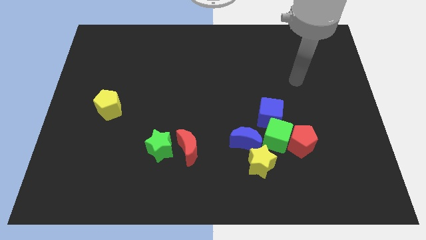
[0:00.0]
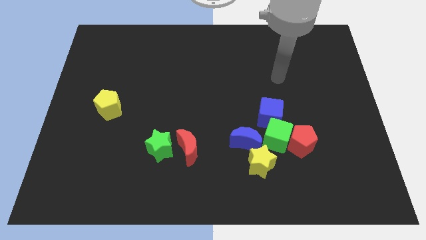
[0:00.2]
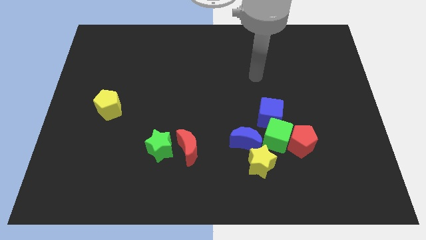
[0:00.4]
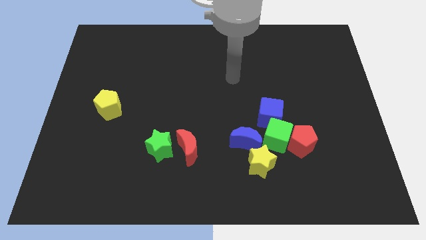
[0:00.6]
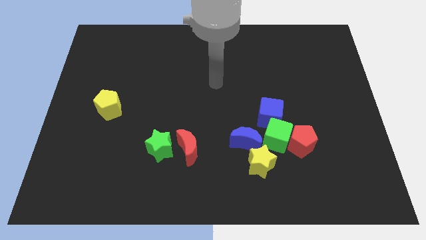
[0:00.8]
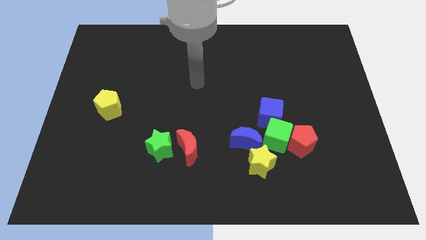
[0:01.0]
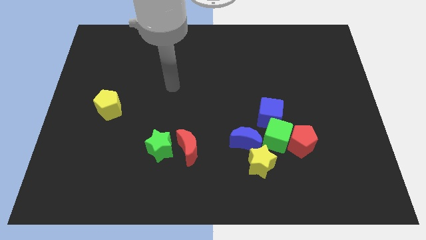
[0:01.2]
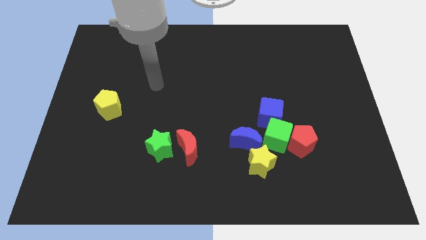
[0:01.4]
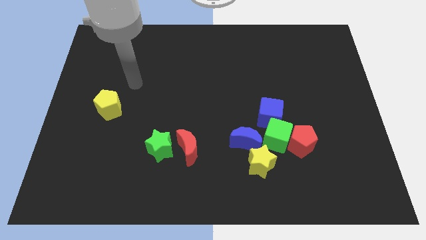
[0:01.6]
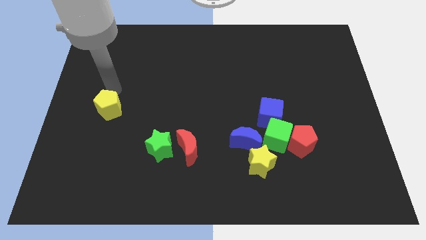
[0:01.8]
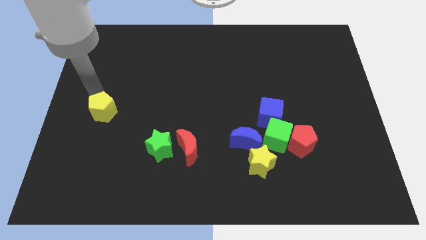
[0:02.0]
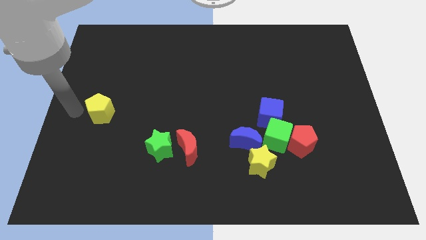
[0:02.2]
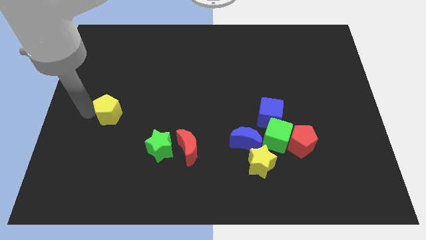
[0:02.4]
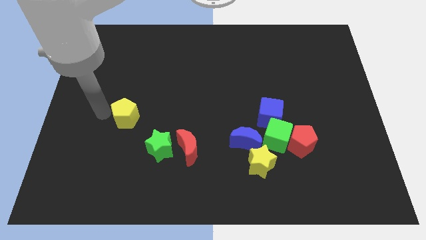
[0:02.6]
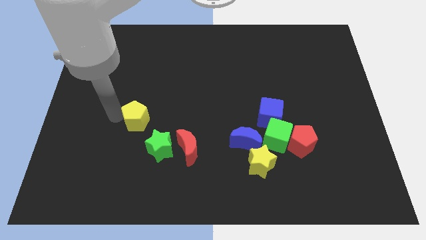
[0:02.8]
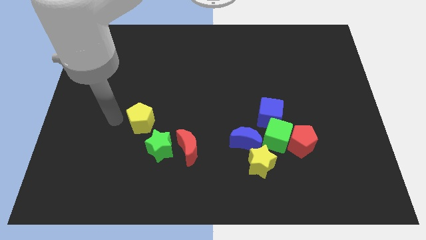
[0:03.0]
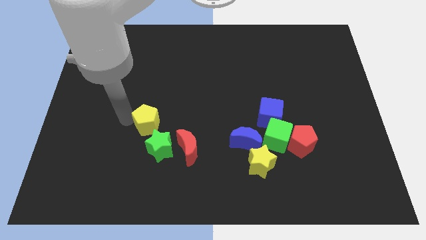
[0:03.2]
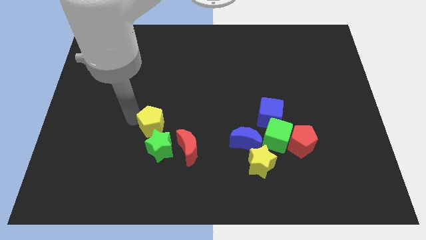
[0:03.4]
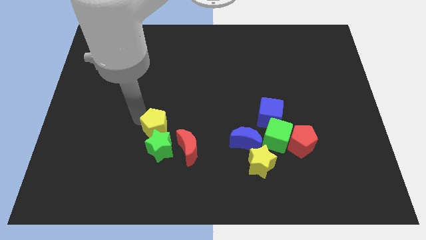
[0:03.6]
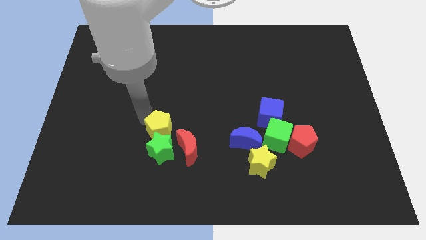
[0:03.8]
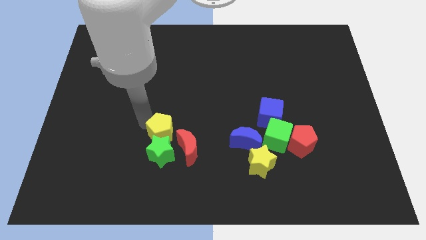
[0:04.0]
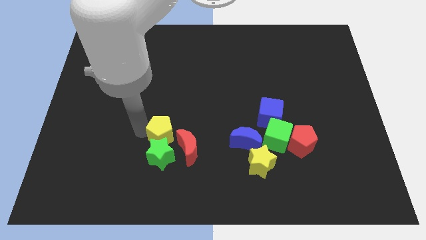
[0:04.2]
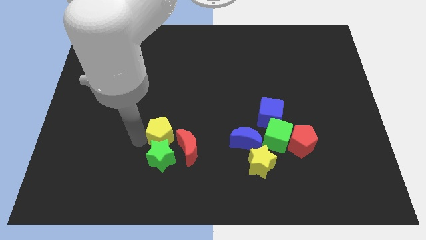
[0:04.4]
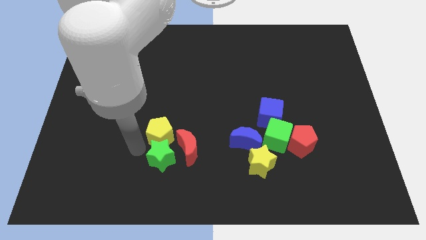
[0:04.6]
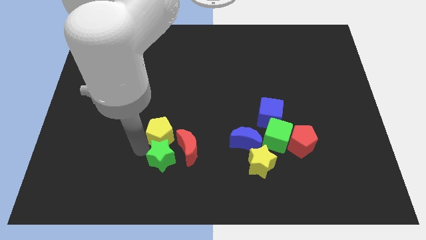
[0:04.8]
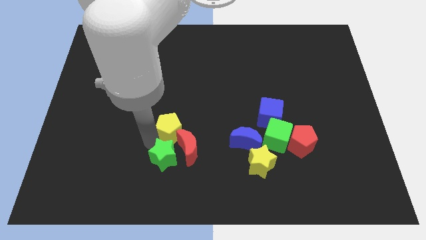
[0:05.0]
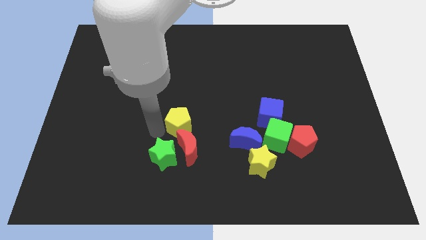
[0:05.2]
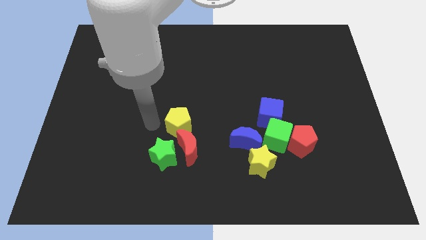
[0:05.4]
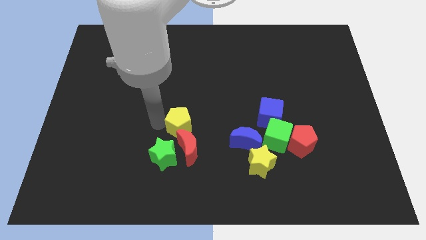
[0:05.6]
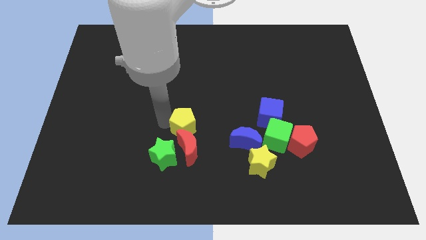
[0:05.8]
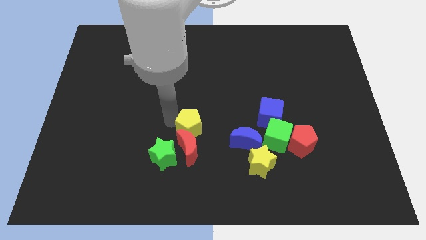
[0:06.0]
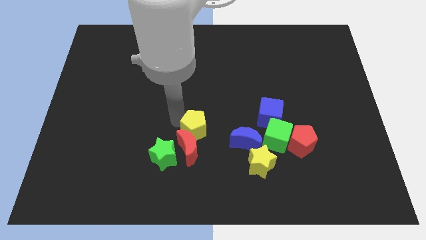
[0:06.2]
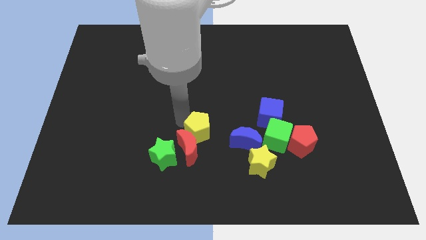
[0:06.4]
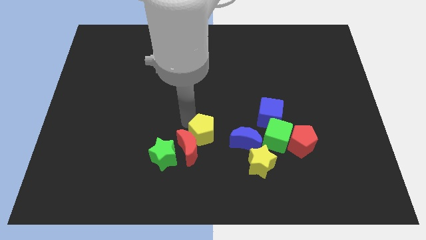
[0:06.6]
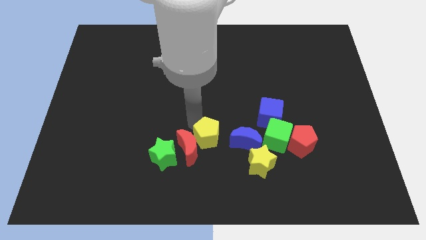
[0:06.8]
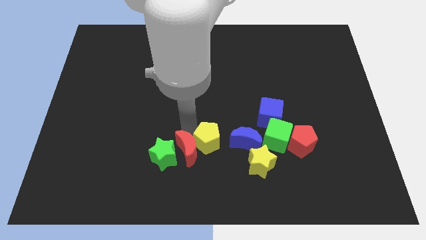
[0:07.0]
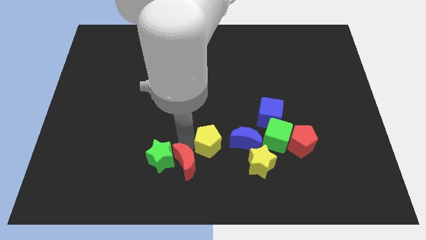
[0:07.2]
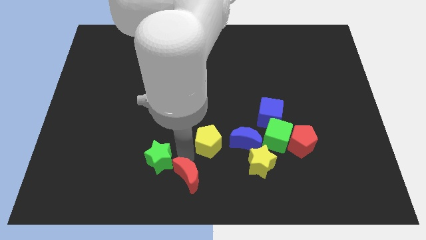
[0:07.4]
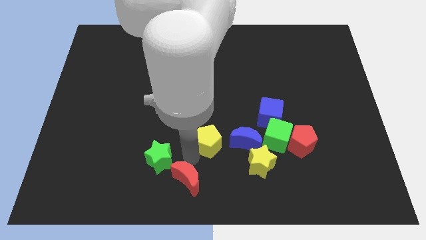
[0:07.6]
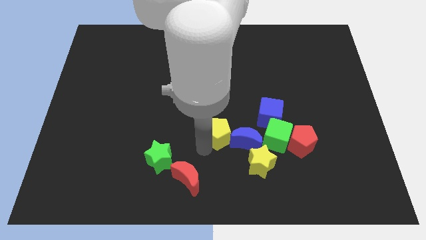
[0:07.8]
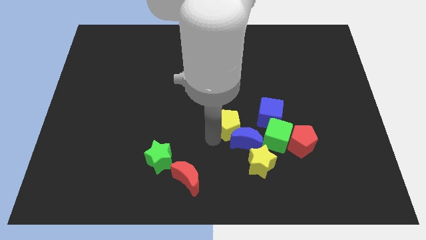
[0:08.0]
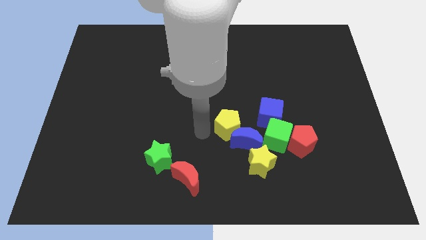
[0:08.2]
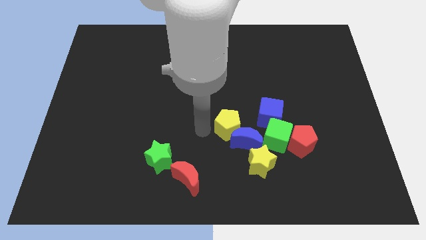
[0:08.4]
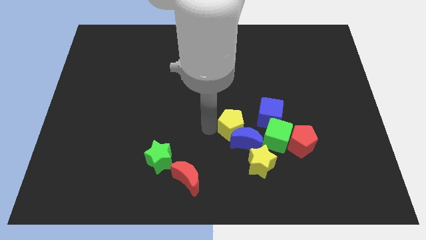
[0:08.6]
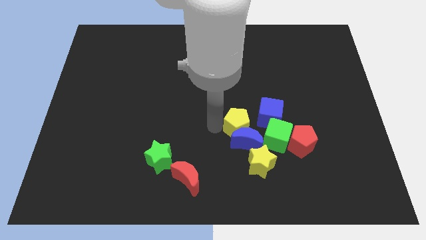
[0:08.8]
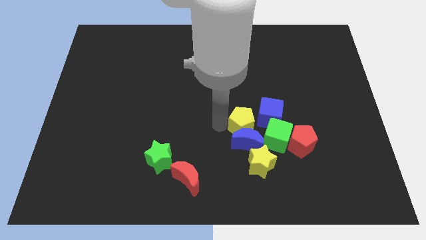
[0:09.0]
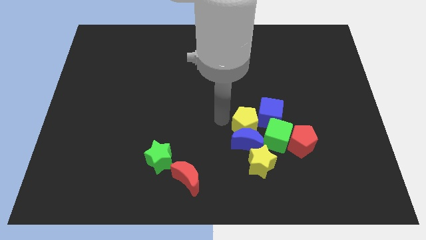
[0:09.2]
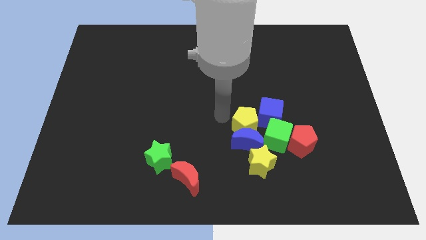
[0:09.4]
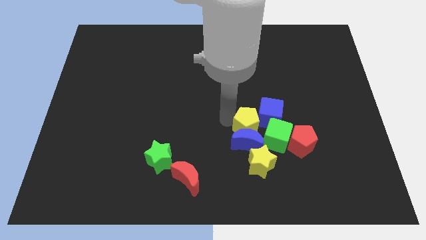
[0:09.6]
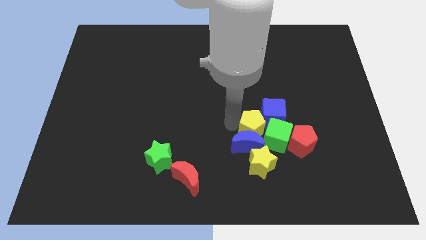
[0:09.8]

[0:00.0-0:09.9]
put the yellow pentagon next to the green cube

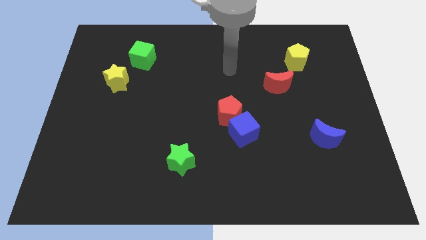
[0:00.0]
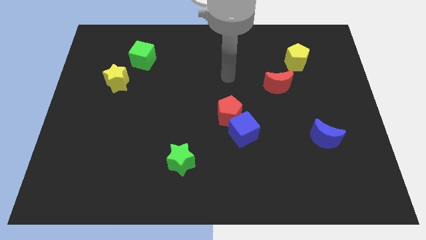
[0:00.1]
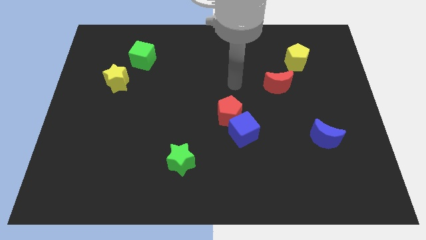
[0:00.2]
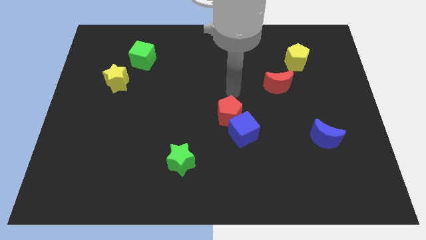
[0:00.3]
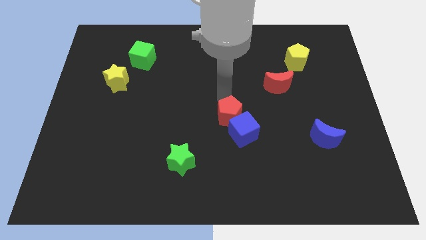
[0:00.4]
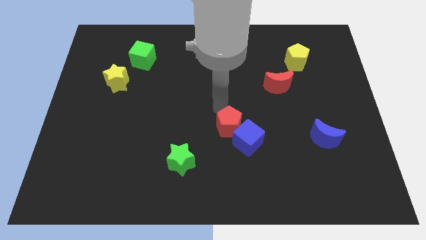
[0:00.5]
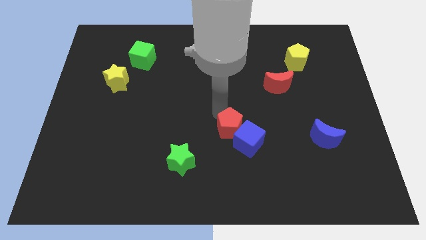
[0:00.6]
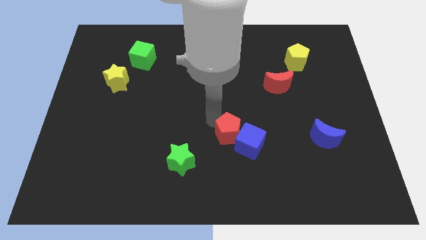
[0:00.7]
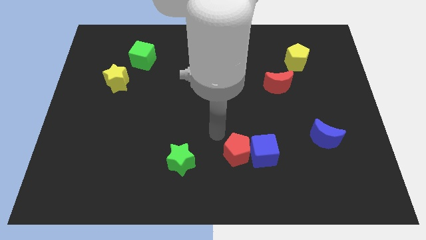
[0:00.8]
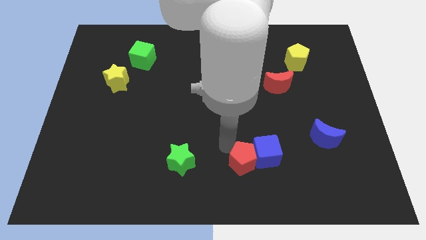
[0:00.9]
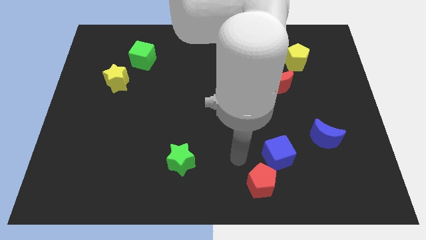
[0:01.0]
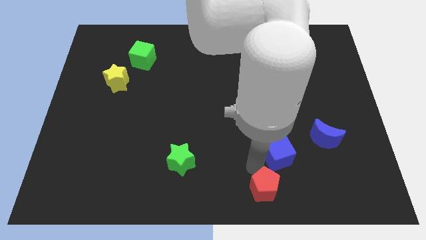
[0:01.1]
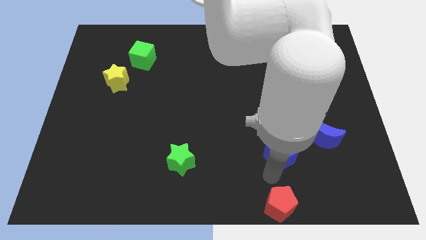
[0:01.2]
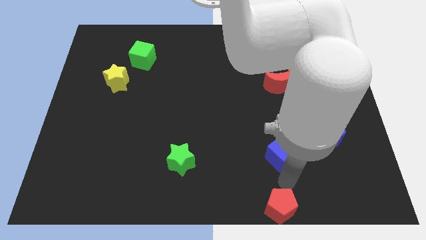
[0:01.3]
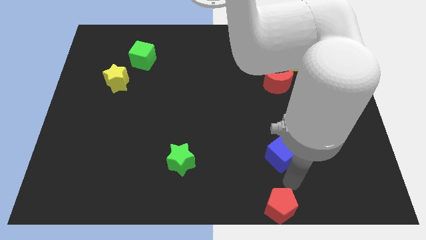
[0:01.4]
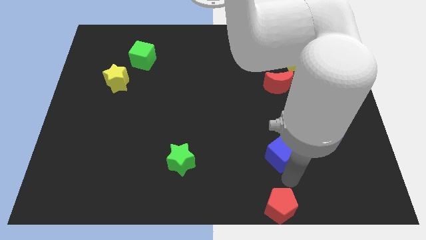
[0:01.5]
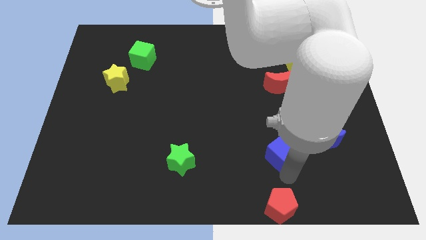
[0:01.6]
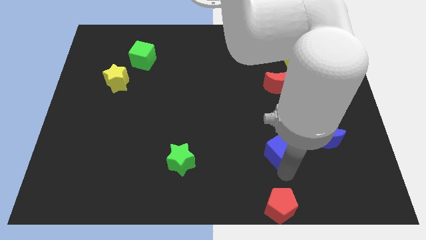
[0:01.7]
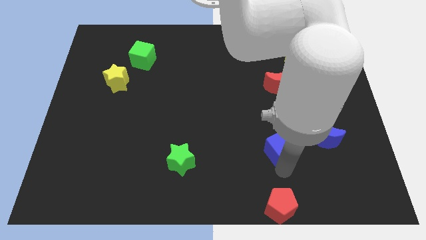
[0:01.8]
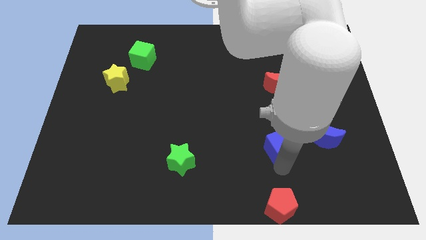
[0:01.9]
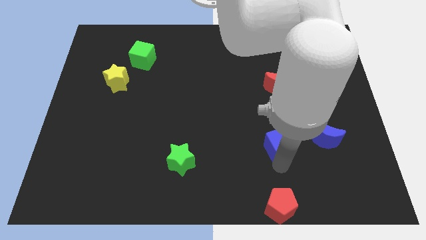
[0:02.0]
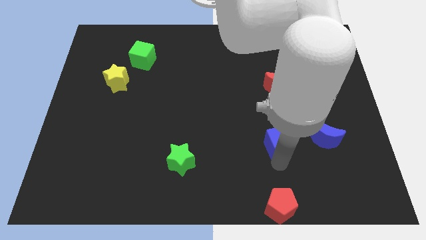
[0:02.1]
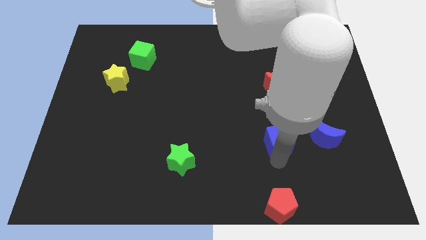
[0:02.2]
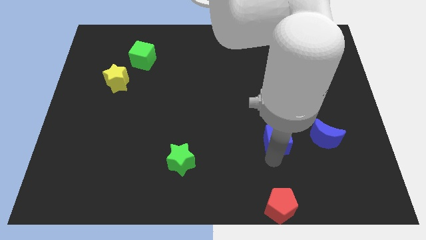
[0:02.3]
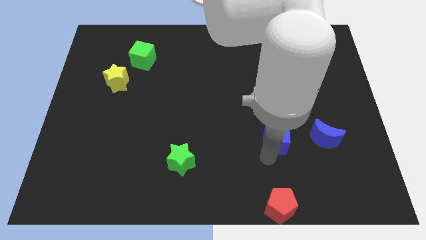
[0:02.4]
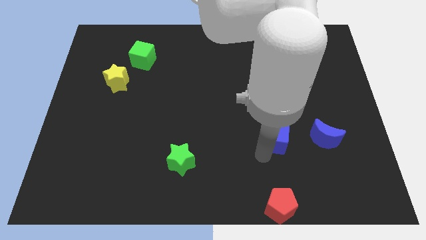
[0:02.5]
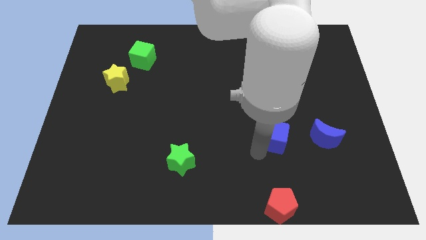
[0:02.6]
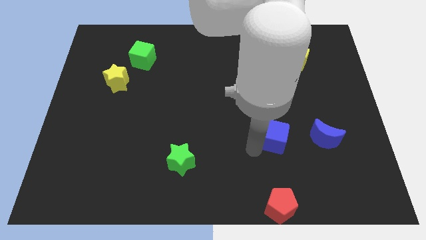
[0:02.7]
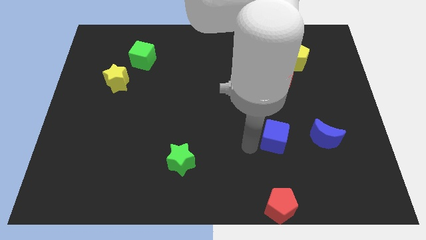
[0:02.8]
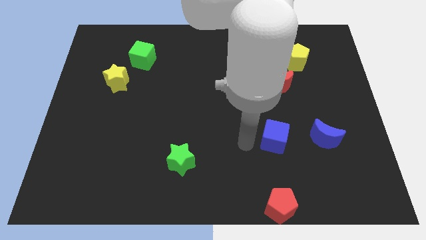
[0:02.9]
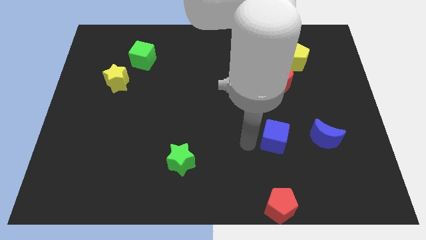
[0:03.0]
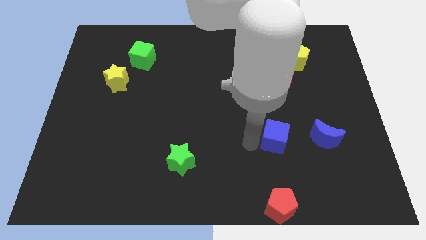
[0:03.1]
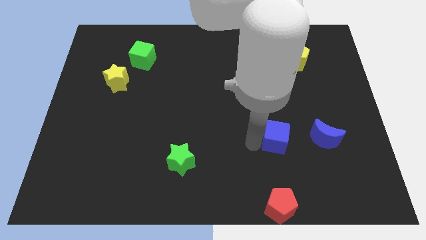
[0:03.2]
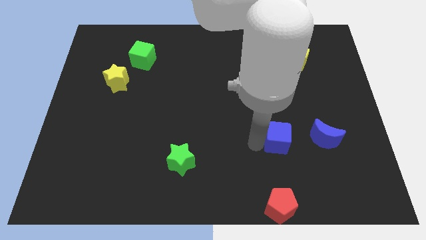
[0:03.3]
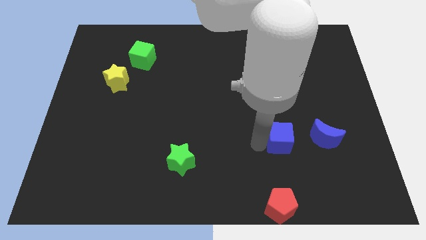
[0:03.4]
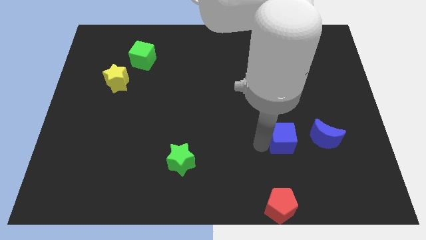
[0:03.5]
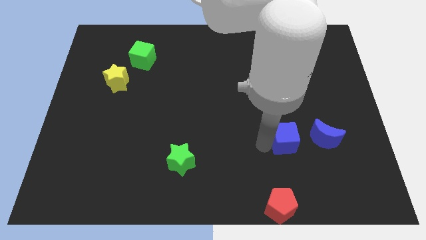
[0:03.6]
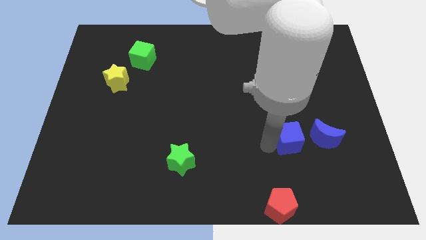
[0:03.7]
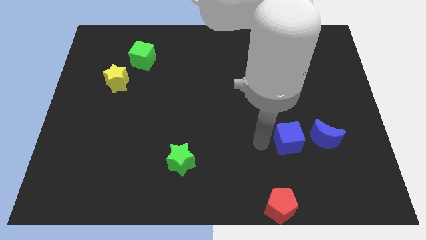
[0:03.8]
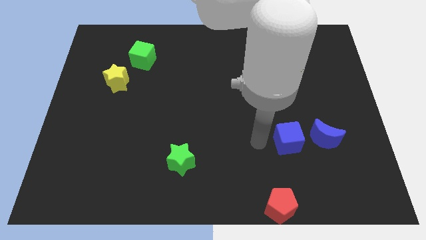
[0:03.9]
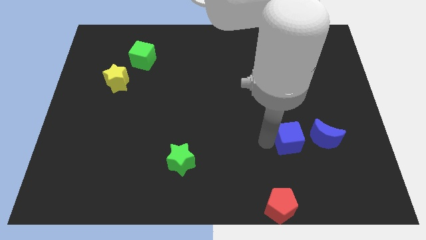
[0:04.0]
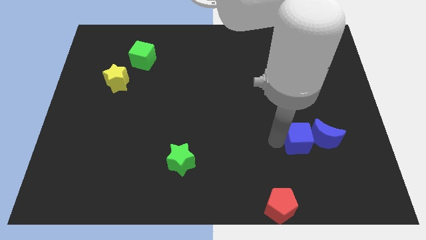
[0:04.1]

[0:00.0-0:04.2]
push the blue cube towards the blue moon
